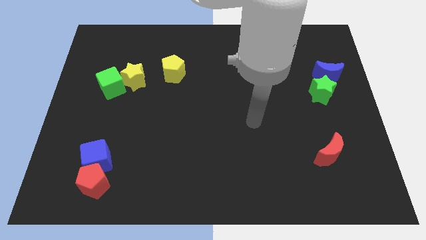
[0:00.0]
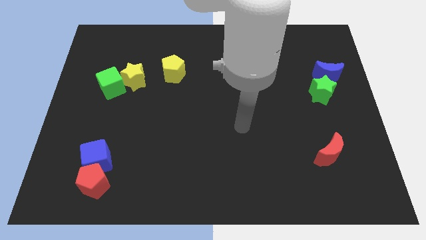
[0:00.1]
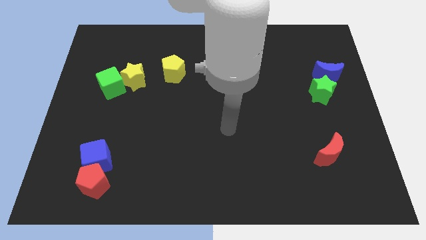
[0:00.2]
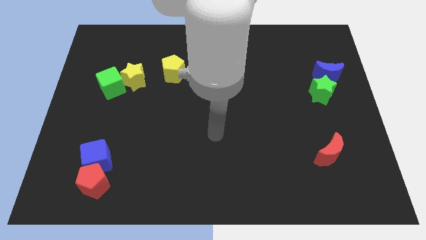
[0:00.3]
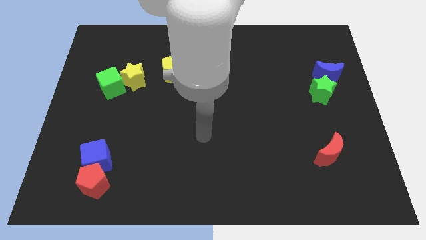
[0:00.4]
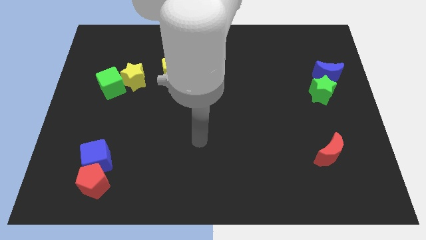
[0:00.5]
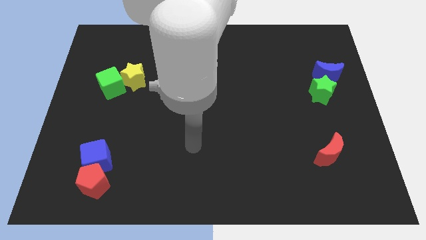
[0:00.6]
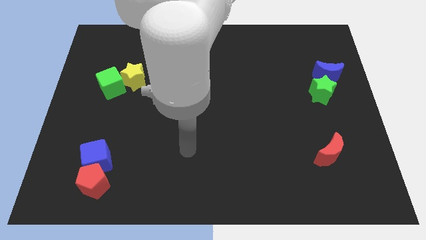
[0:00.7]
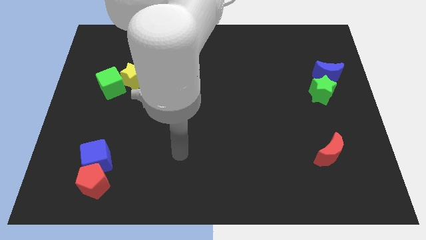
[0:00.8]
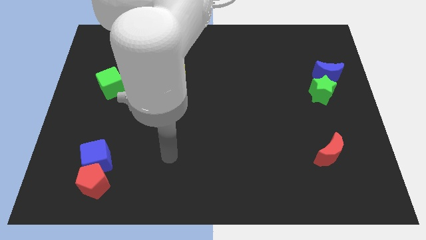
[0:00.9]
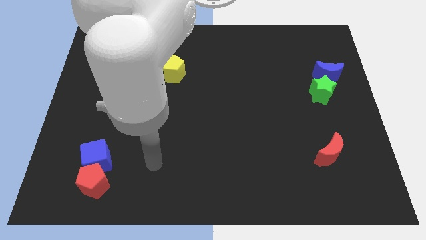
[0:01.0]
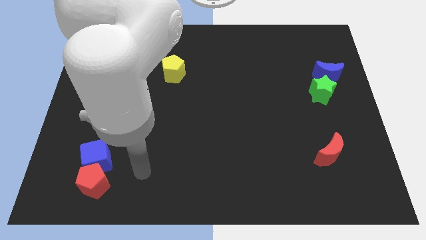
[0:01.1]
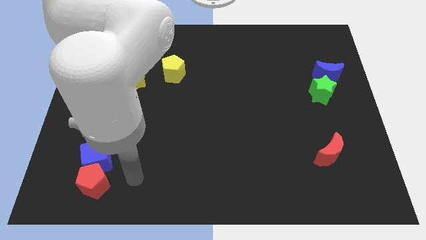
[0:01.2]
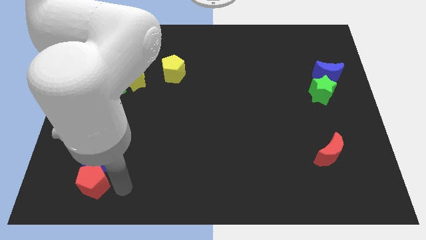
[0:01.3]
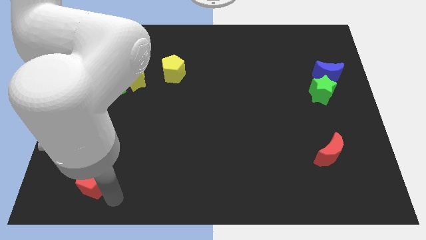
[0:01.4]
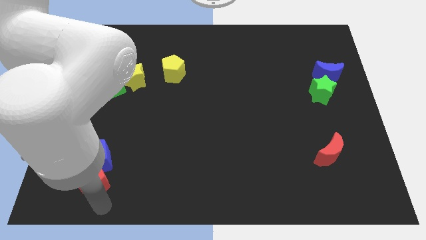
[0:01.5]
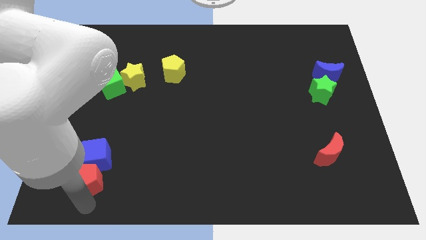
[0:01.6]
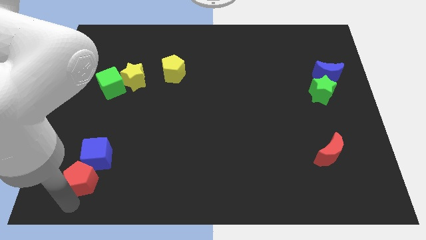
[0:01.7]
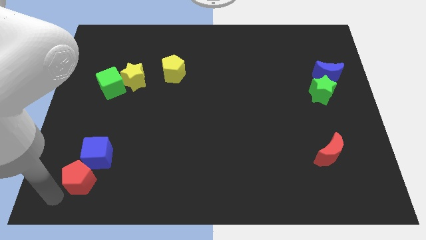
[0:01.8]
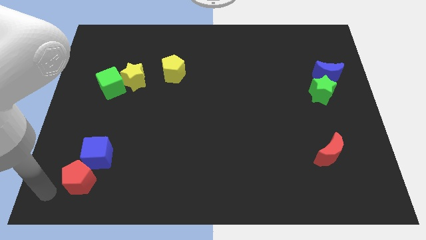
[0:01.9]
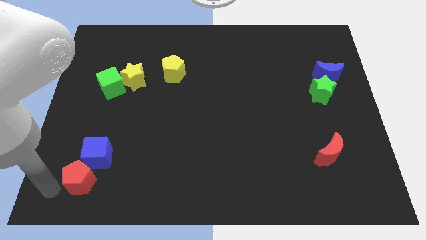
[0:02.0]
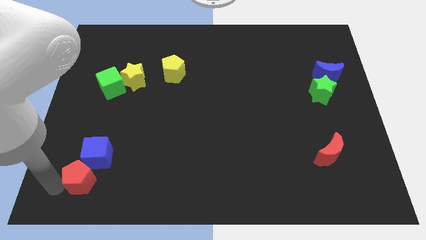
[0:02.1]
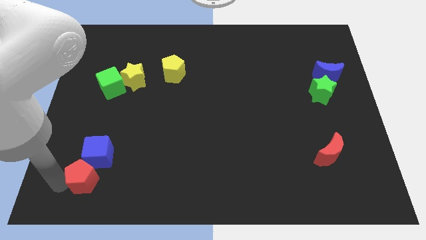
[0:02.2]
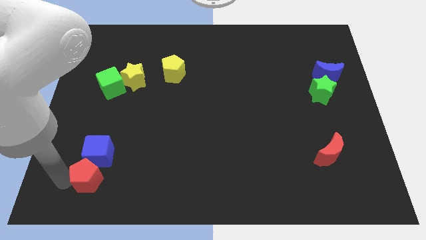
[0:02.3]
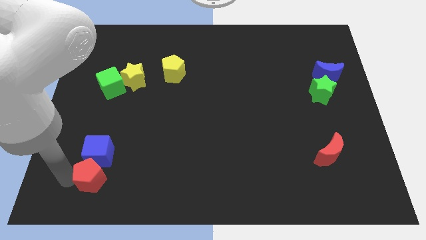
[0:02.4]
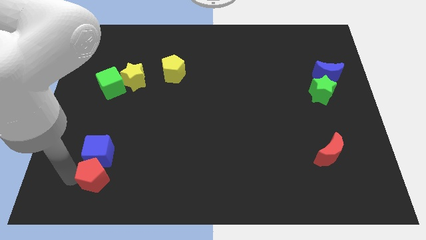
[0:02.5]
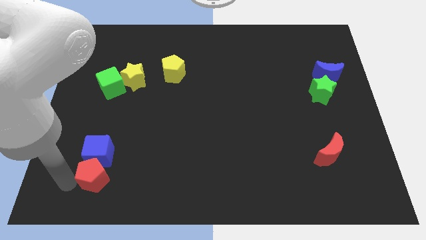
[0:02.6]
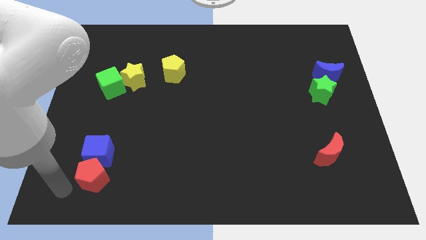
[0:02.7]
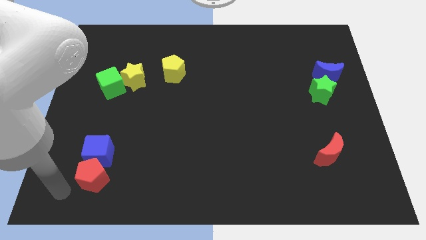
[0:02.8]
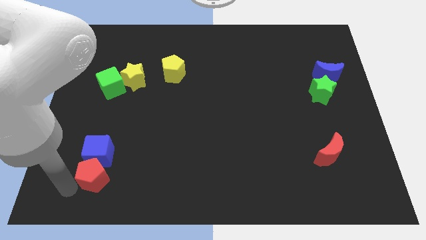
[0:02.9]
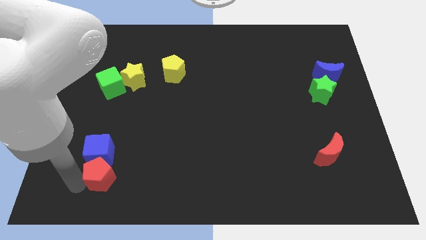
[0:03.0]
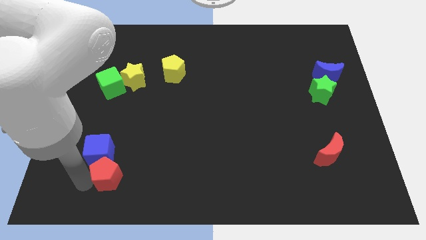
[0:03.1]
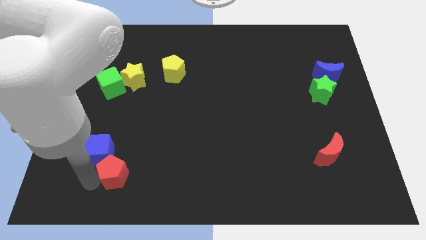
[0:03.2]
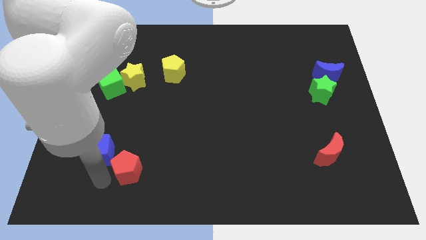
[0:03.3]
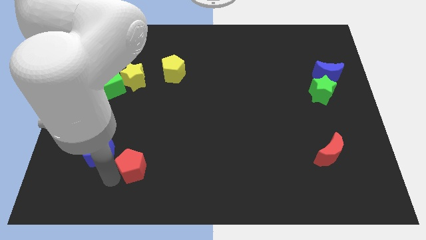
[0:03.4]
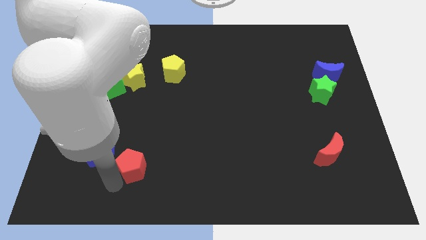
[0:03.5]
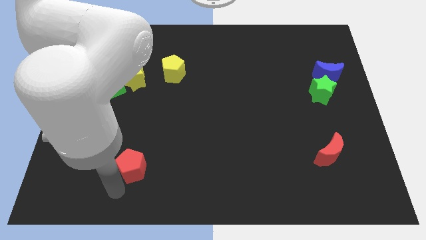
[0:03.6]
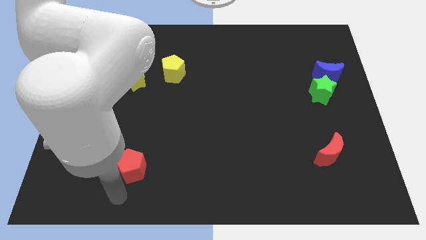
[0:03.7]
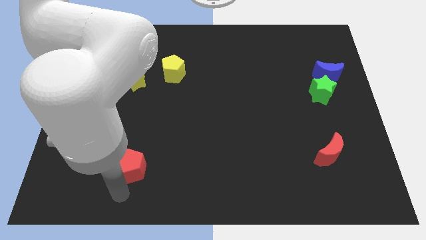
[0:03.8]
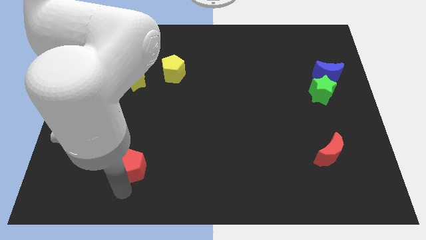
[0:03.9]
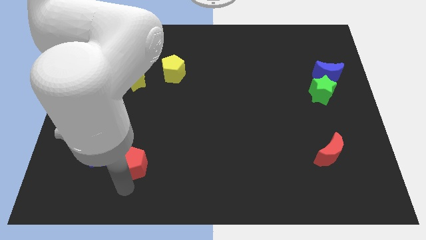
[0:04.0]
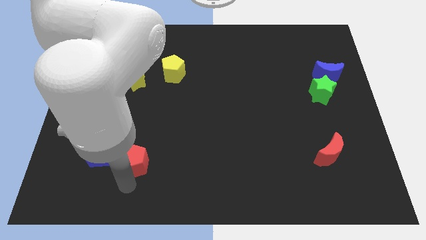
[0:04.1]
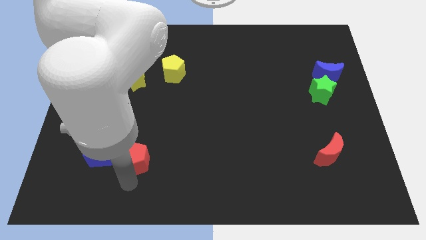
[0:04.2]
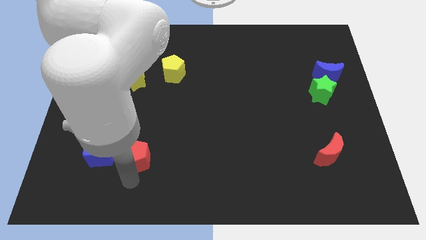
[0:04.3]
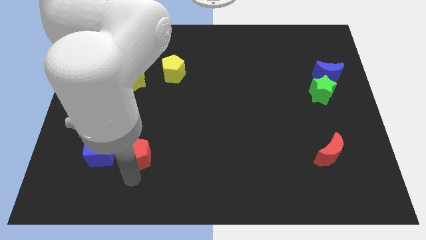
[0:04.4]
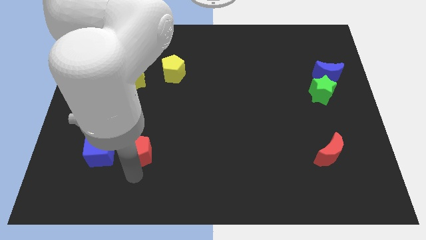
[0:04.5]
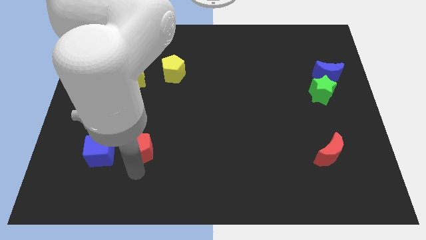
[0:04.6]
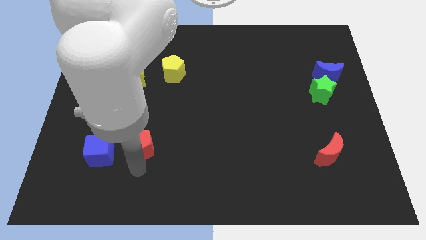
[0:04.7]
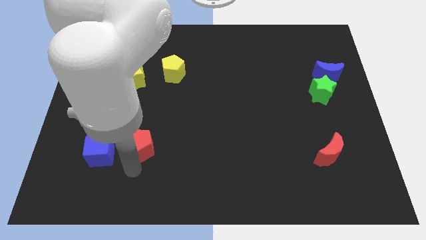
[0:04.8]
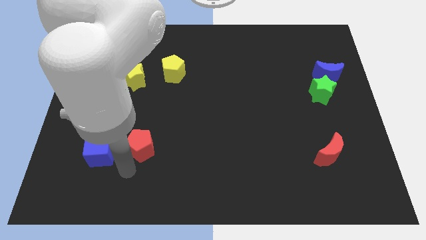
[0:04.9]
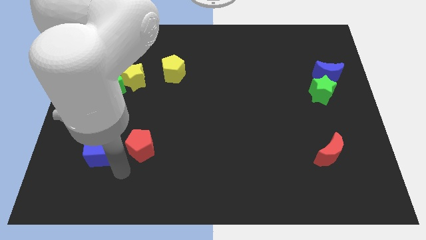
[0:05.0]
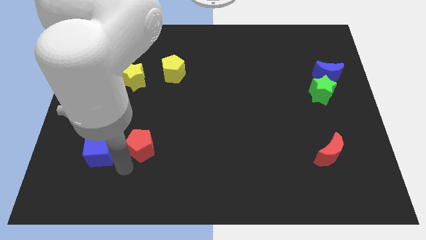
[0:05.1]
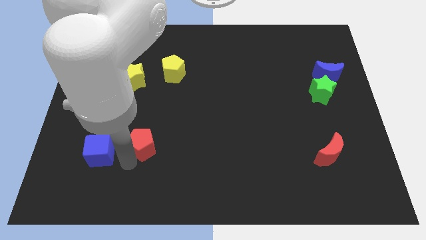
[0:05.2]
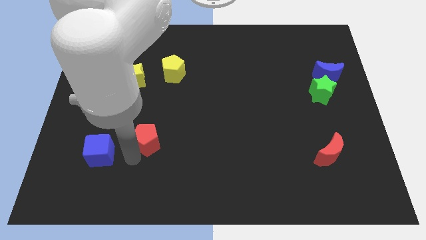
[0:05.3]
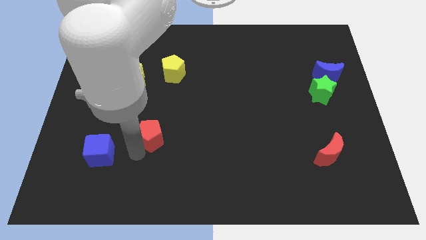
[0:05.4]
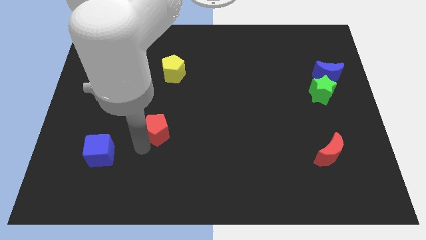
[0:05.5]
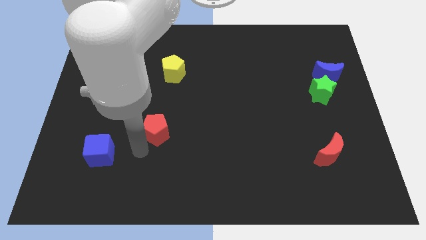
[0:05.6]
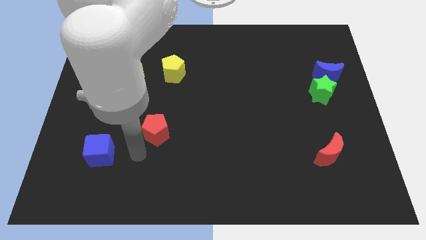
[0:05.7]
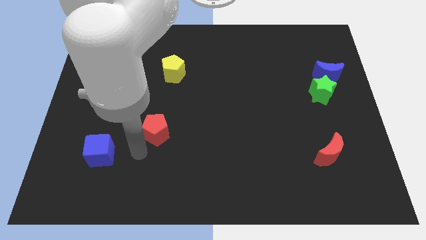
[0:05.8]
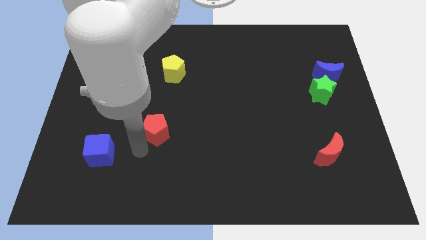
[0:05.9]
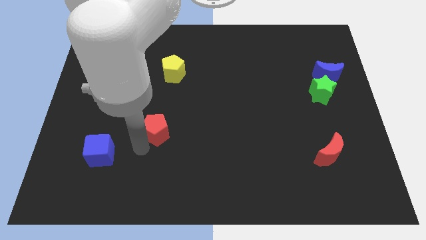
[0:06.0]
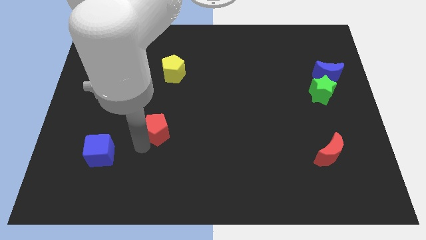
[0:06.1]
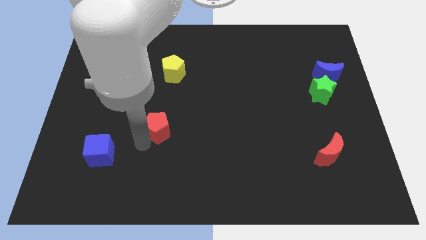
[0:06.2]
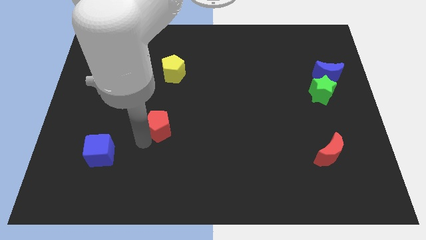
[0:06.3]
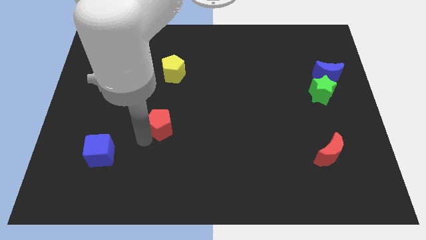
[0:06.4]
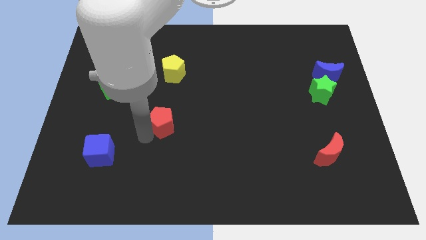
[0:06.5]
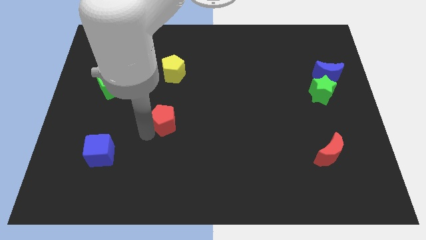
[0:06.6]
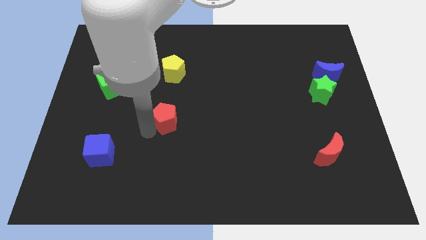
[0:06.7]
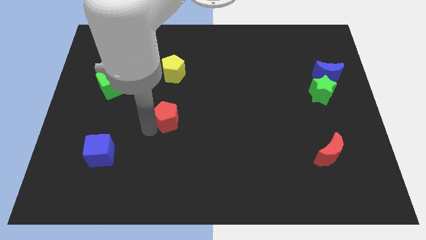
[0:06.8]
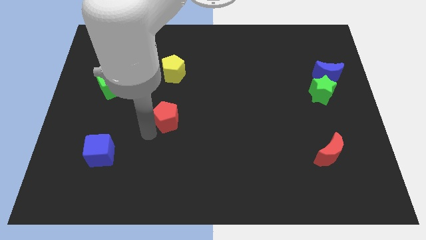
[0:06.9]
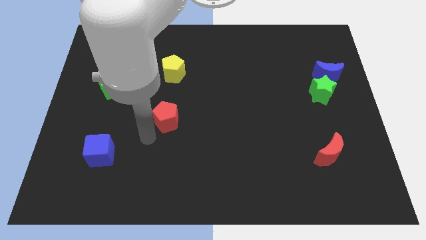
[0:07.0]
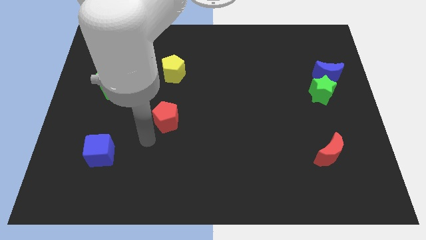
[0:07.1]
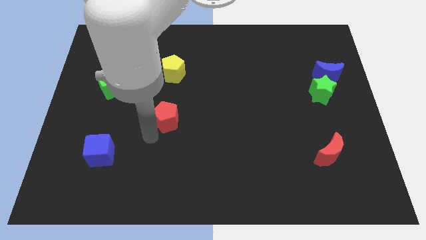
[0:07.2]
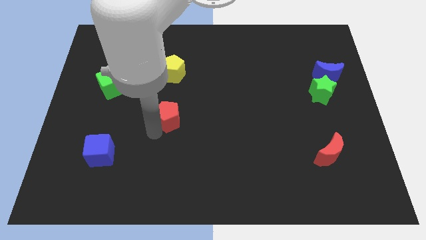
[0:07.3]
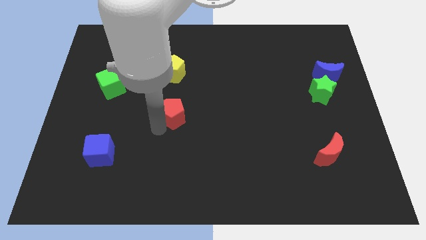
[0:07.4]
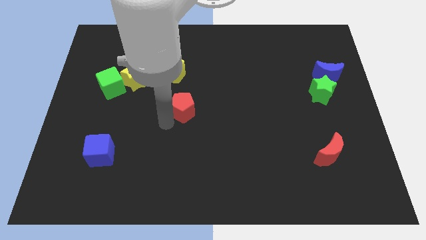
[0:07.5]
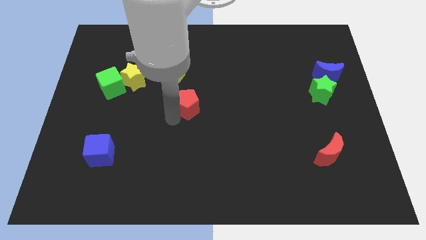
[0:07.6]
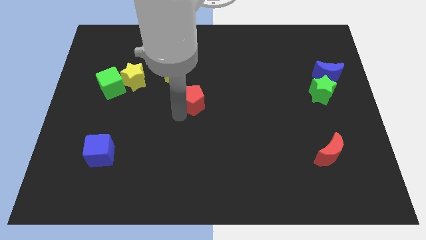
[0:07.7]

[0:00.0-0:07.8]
move the red pentagon diagonally down and to the right of the yellow pentagon
